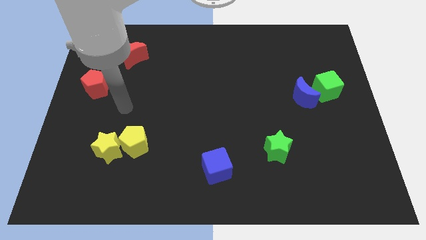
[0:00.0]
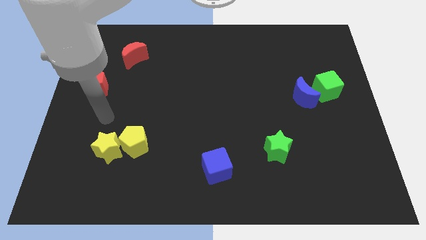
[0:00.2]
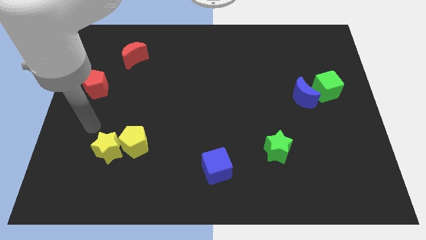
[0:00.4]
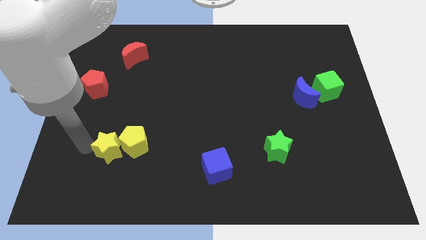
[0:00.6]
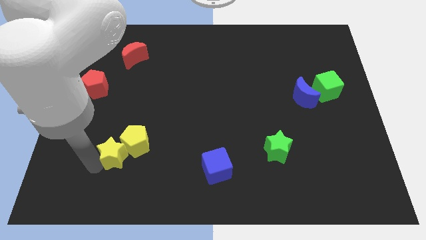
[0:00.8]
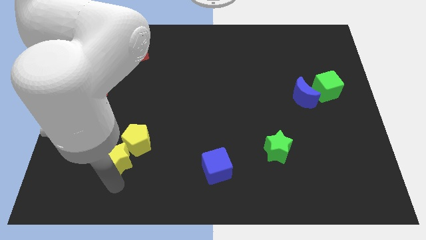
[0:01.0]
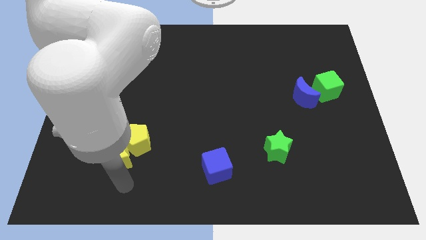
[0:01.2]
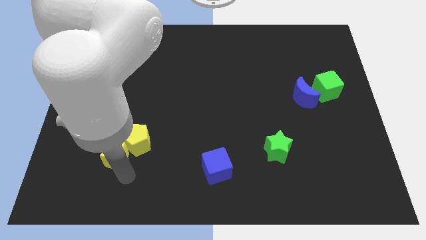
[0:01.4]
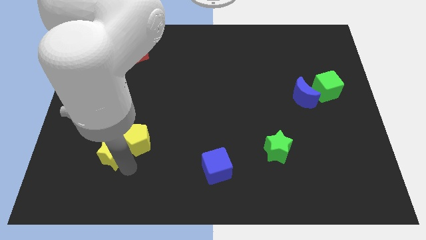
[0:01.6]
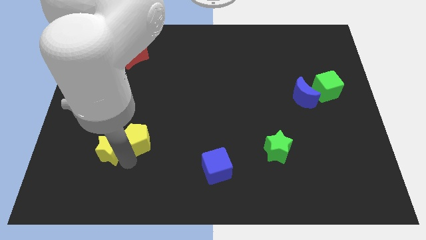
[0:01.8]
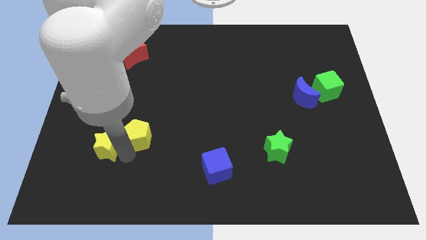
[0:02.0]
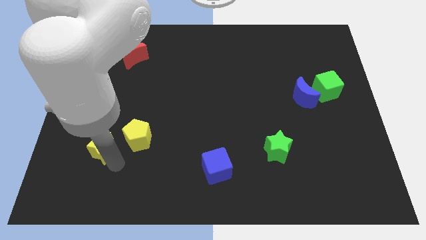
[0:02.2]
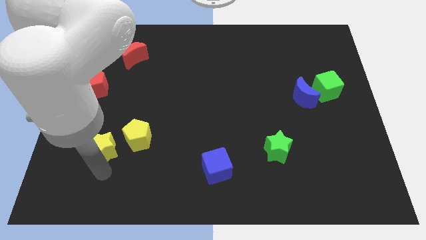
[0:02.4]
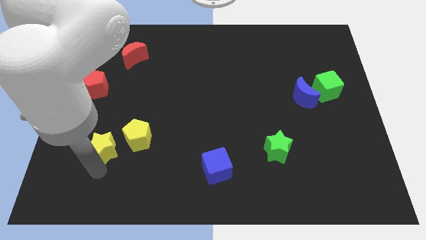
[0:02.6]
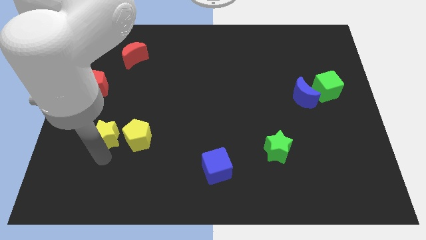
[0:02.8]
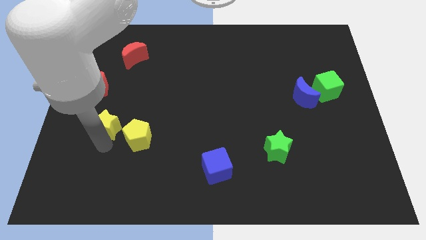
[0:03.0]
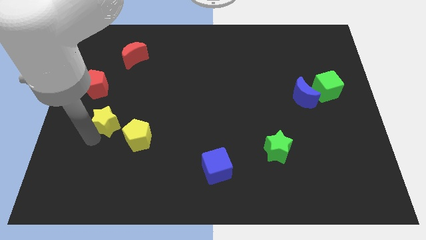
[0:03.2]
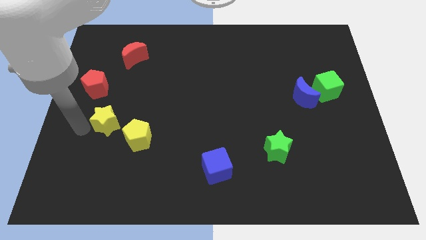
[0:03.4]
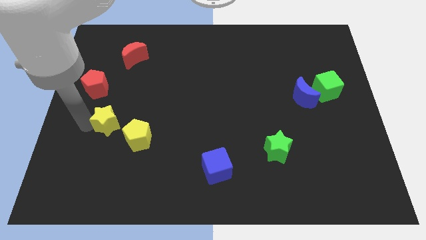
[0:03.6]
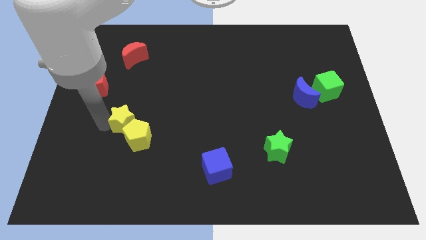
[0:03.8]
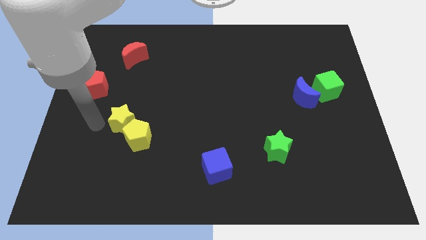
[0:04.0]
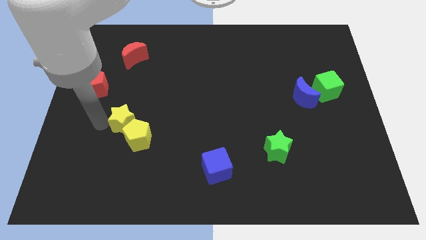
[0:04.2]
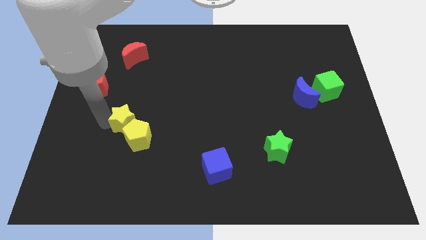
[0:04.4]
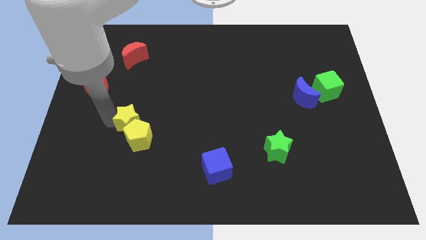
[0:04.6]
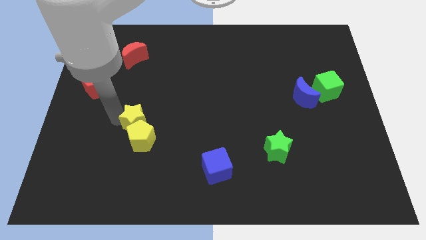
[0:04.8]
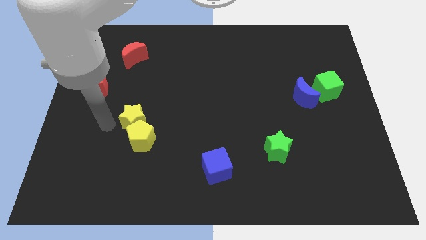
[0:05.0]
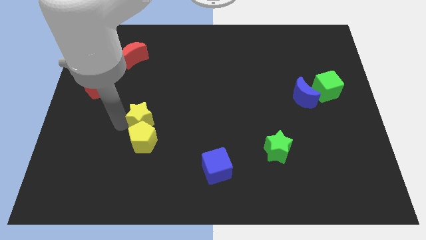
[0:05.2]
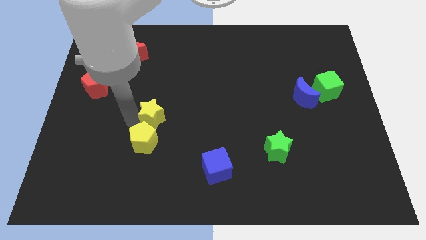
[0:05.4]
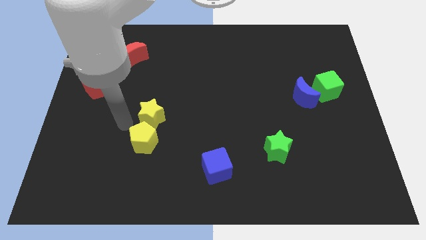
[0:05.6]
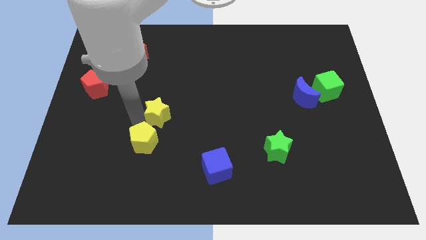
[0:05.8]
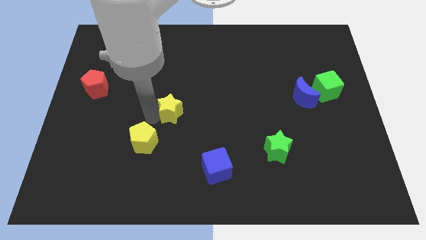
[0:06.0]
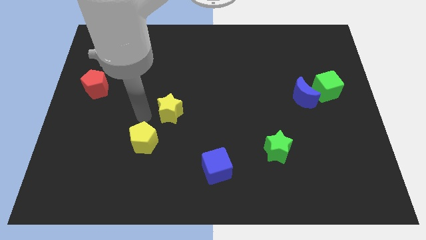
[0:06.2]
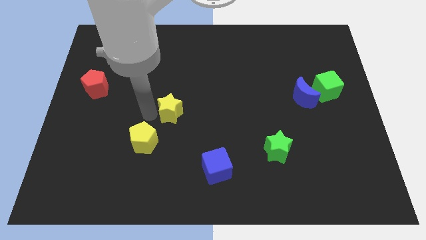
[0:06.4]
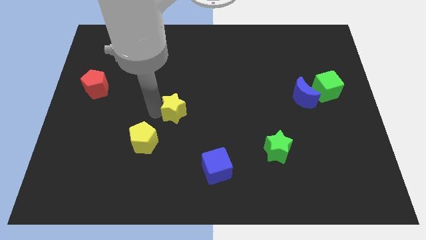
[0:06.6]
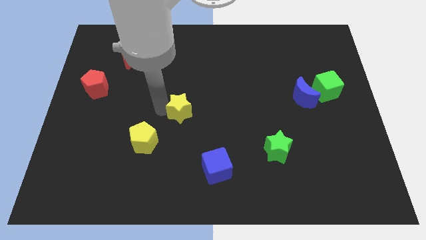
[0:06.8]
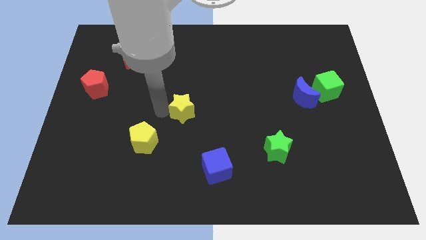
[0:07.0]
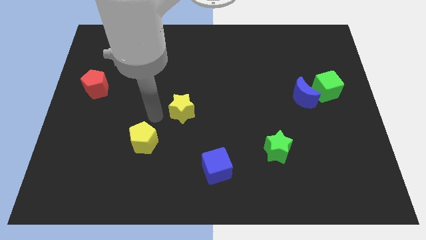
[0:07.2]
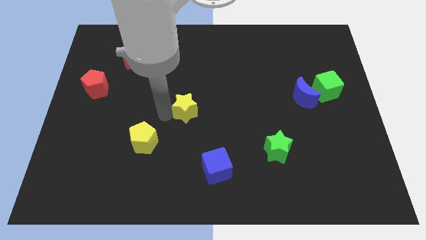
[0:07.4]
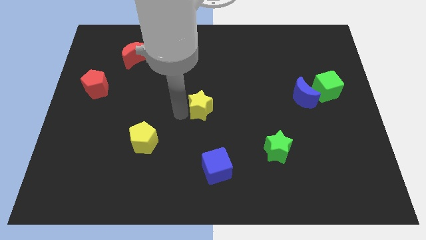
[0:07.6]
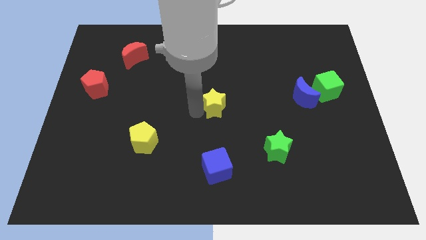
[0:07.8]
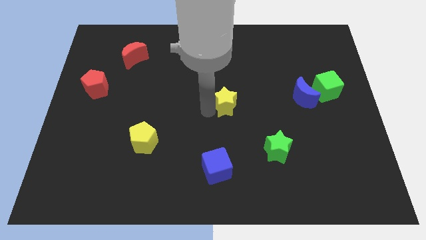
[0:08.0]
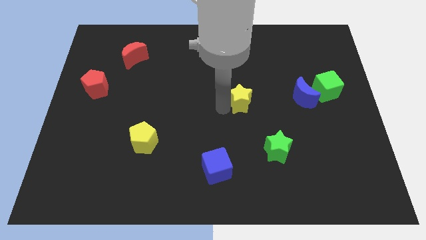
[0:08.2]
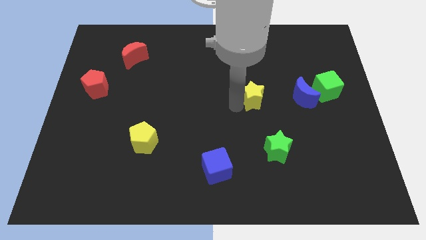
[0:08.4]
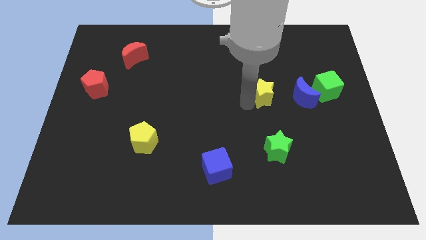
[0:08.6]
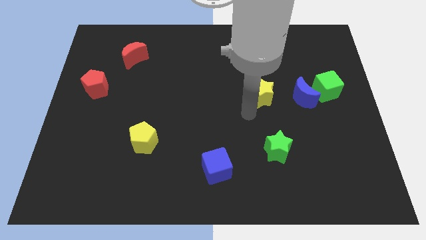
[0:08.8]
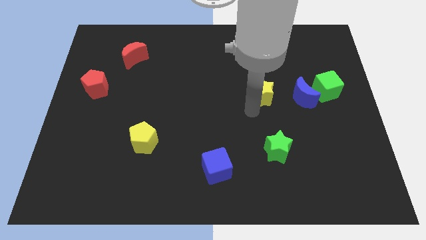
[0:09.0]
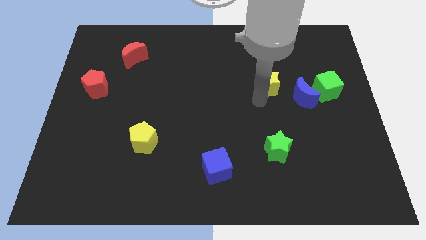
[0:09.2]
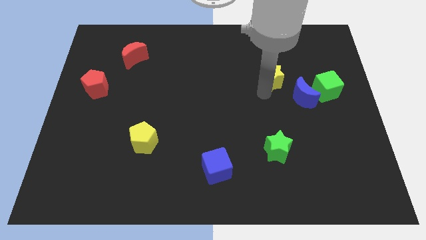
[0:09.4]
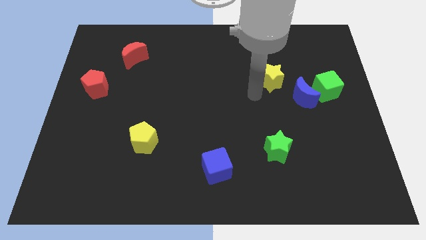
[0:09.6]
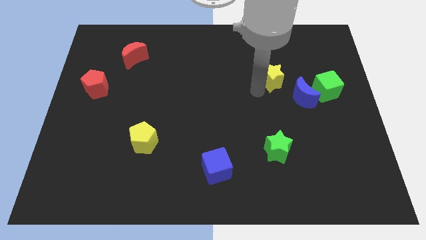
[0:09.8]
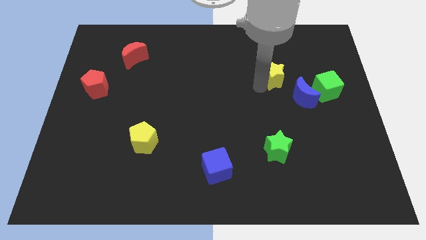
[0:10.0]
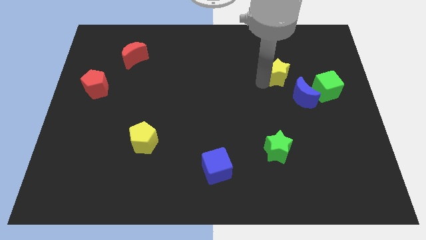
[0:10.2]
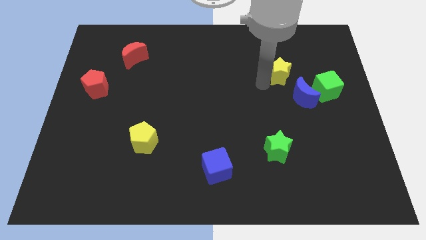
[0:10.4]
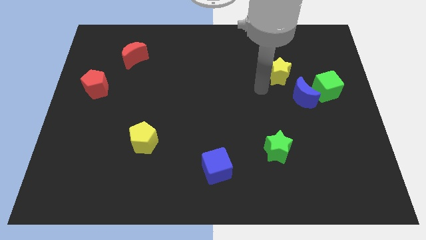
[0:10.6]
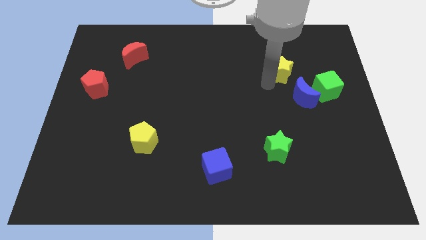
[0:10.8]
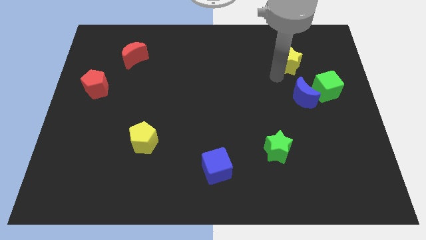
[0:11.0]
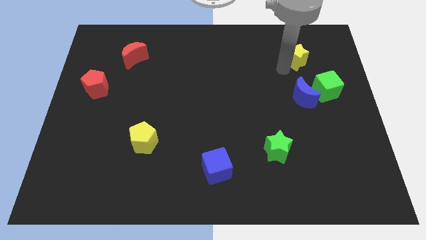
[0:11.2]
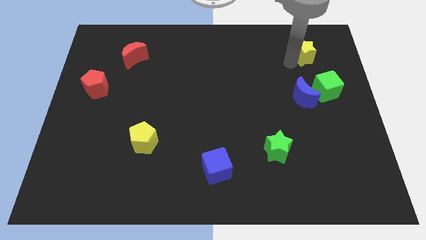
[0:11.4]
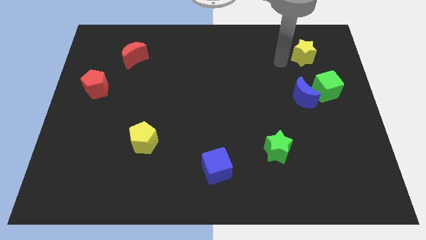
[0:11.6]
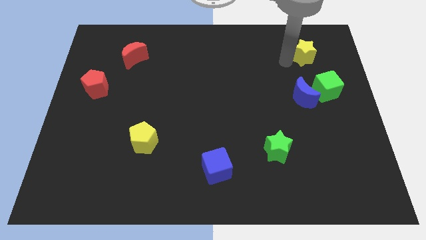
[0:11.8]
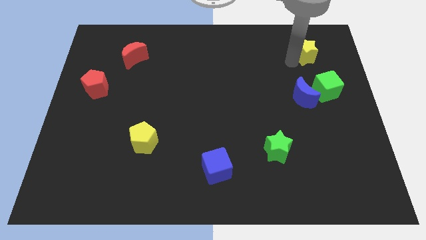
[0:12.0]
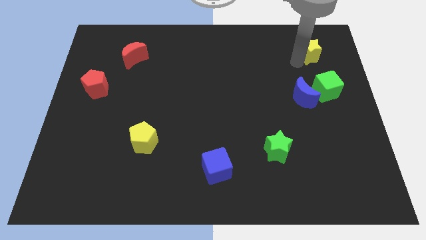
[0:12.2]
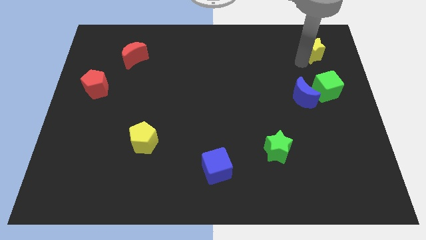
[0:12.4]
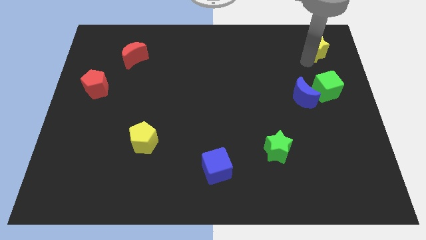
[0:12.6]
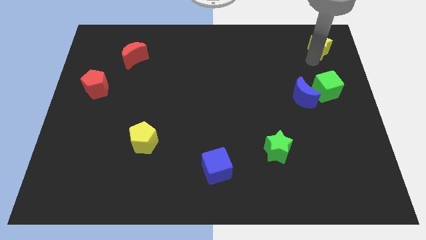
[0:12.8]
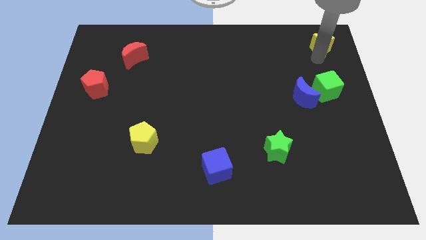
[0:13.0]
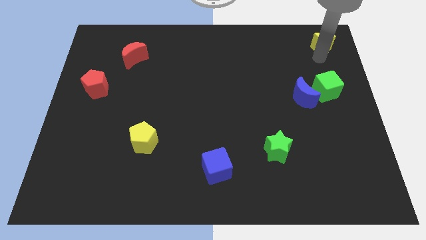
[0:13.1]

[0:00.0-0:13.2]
move the yellow star to the top right corner
